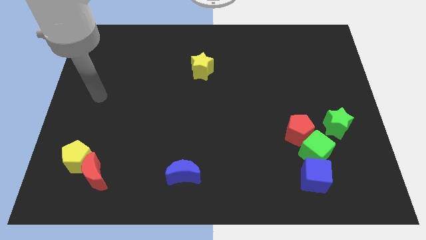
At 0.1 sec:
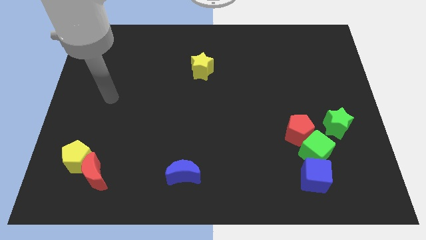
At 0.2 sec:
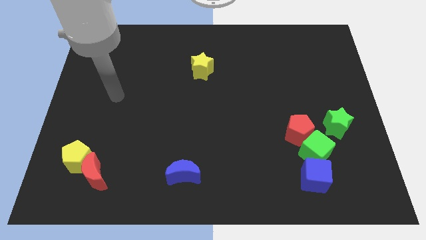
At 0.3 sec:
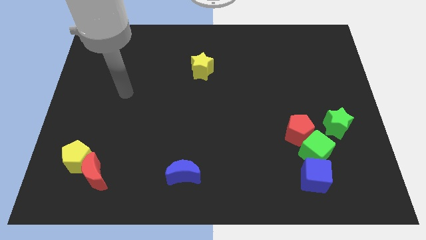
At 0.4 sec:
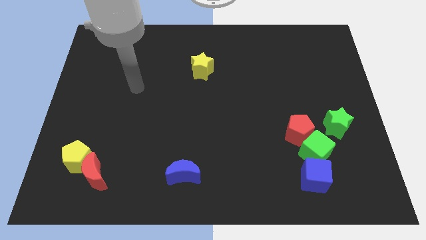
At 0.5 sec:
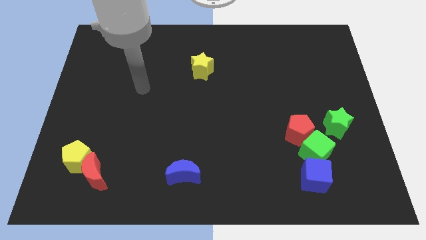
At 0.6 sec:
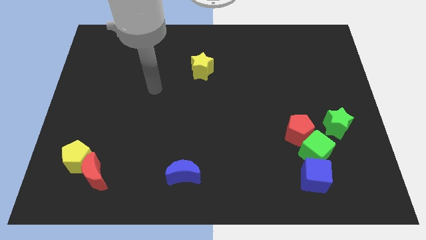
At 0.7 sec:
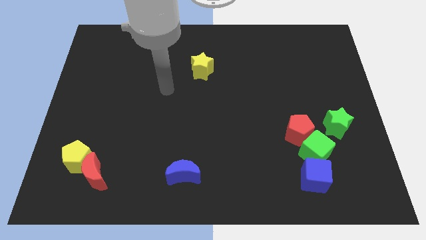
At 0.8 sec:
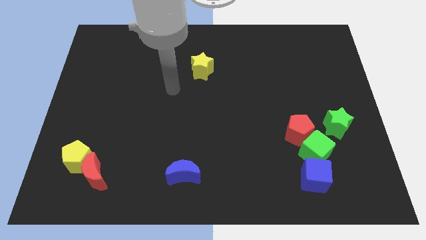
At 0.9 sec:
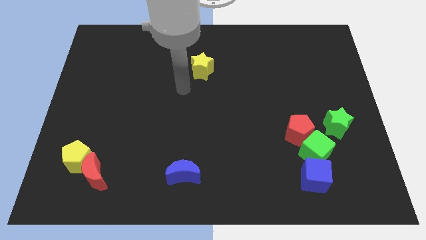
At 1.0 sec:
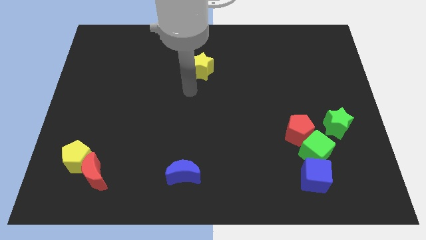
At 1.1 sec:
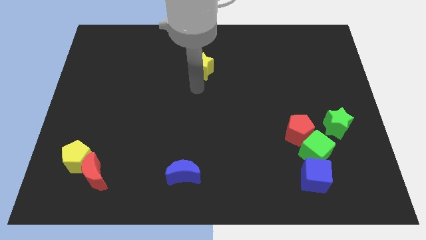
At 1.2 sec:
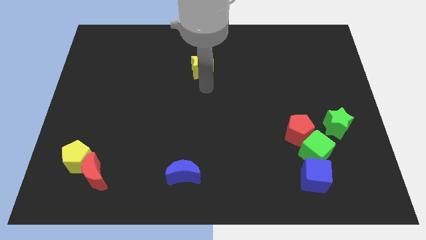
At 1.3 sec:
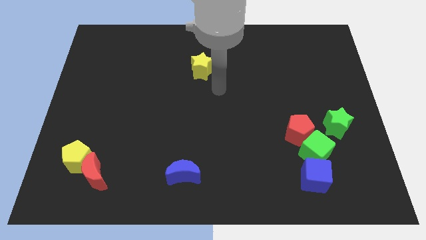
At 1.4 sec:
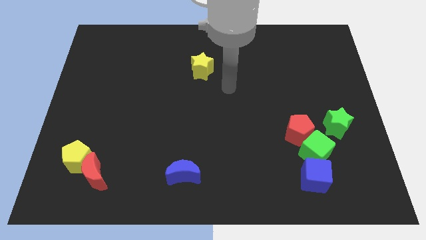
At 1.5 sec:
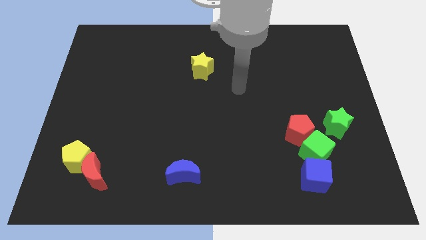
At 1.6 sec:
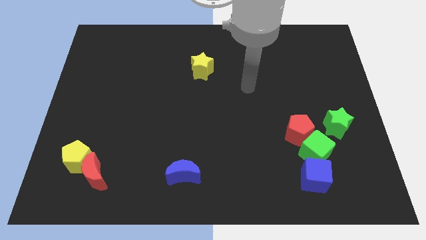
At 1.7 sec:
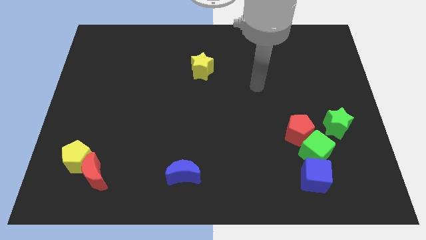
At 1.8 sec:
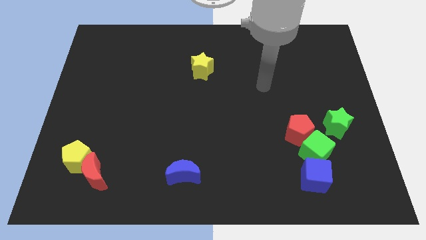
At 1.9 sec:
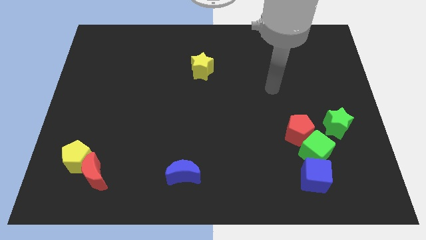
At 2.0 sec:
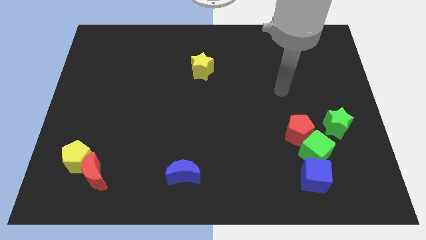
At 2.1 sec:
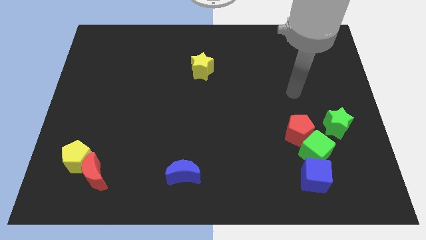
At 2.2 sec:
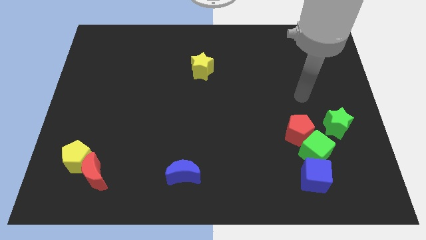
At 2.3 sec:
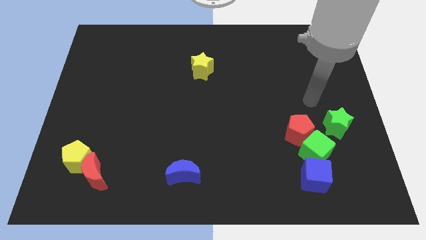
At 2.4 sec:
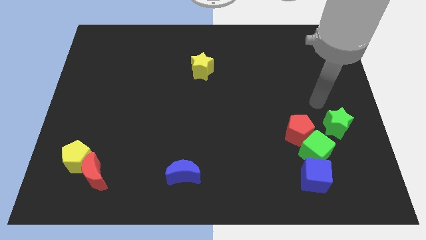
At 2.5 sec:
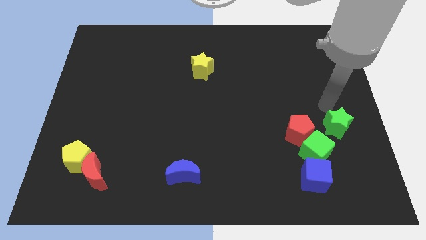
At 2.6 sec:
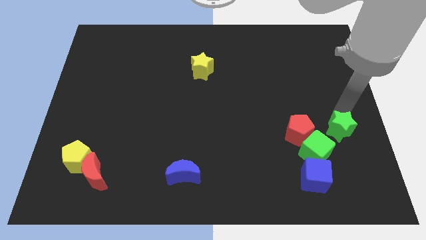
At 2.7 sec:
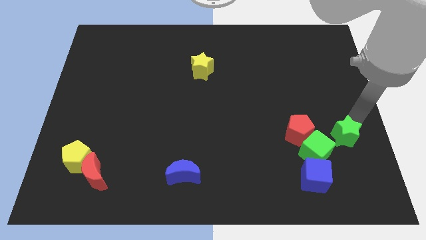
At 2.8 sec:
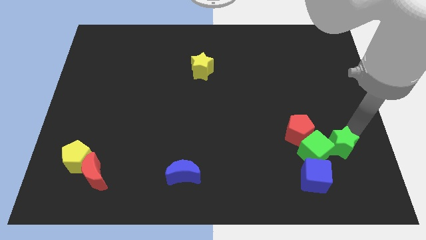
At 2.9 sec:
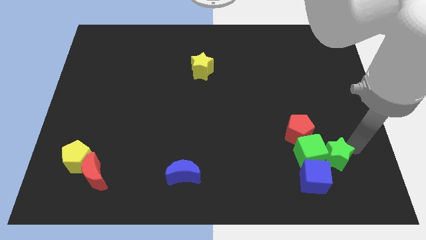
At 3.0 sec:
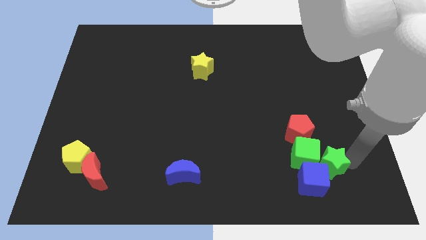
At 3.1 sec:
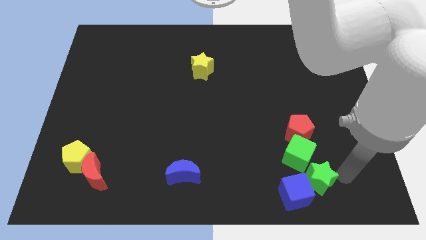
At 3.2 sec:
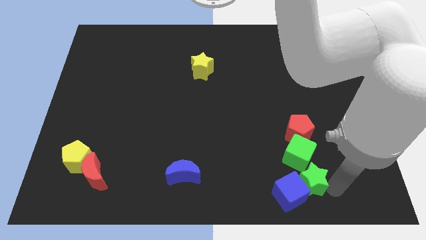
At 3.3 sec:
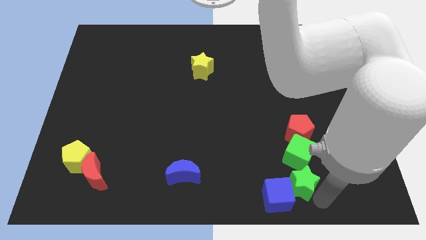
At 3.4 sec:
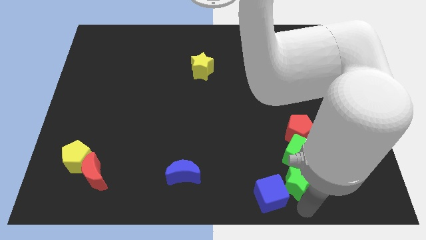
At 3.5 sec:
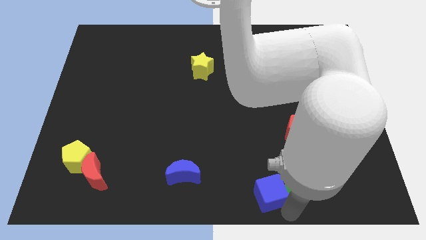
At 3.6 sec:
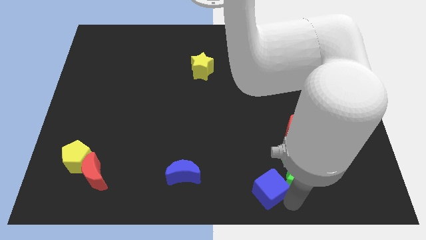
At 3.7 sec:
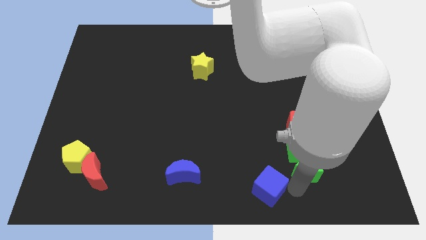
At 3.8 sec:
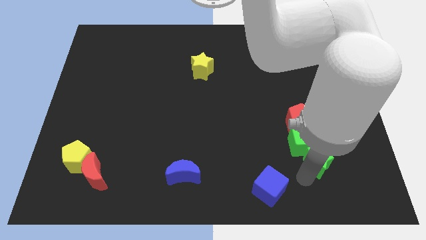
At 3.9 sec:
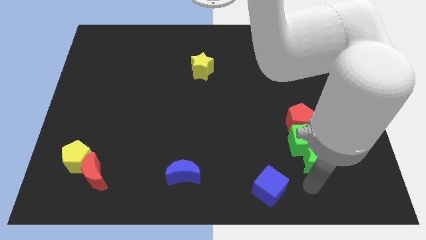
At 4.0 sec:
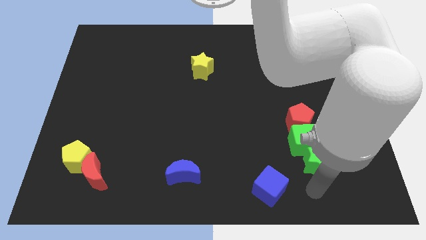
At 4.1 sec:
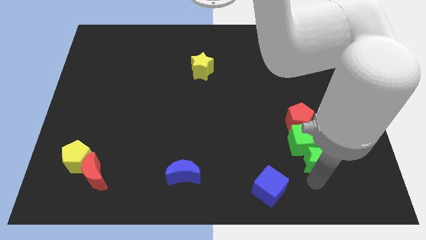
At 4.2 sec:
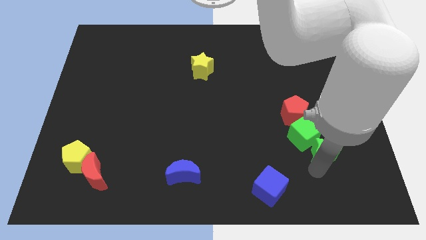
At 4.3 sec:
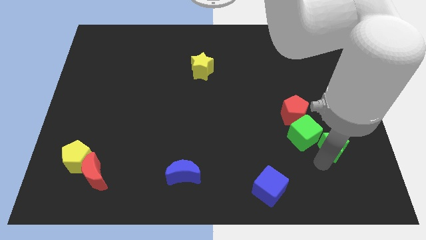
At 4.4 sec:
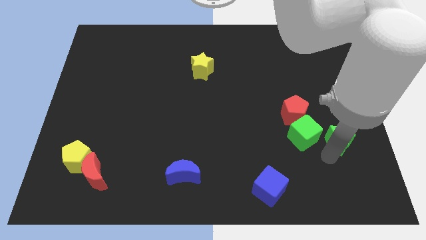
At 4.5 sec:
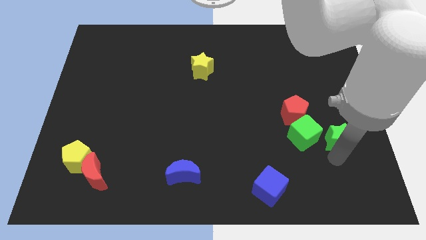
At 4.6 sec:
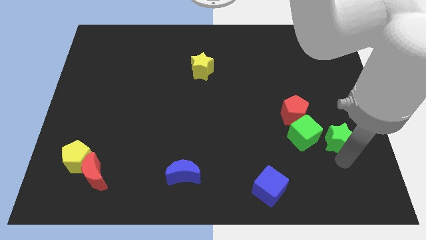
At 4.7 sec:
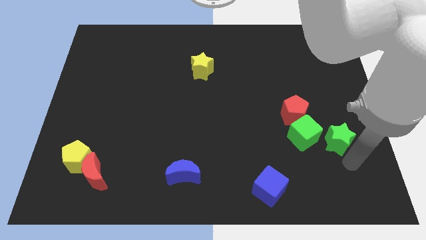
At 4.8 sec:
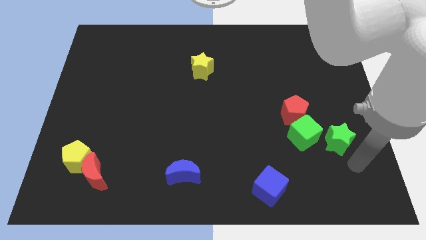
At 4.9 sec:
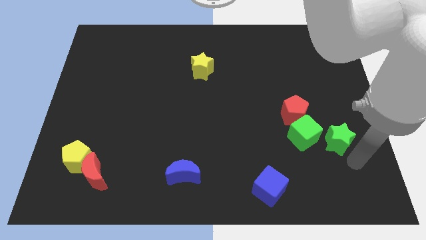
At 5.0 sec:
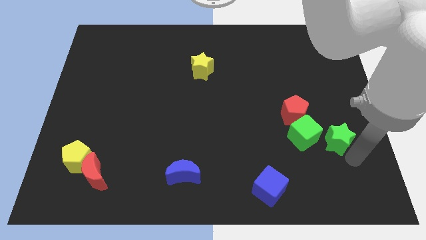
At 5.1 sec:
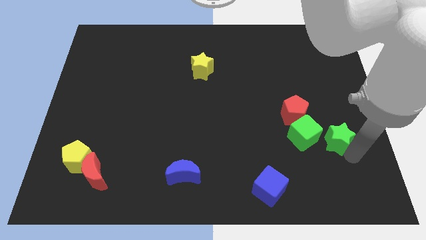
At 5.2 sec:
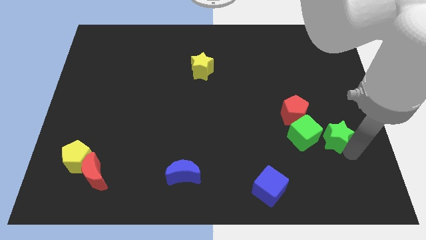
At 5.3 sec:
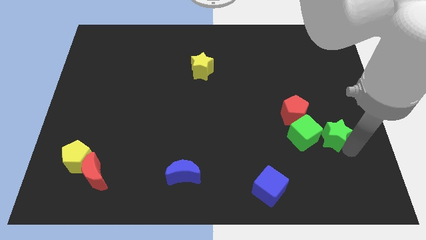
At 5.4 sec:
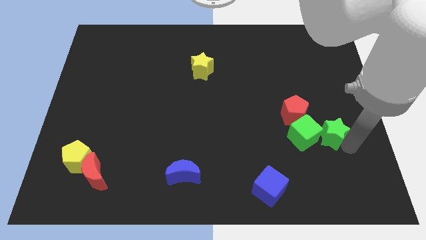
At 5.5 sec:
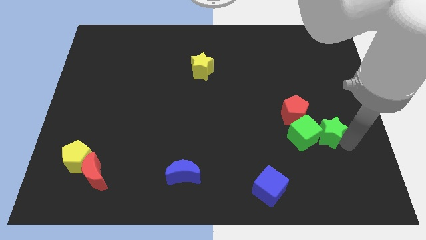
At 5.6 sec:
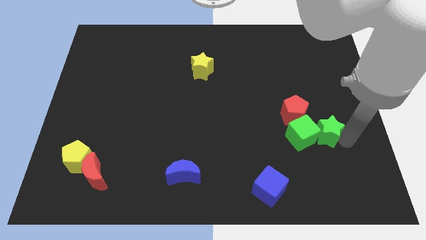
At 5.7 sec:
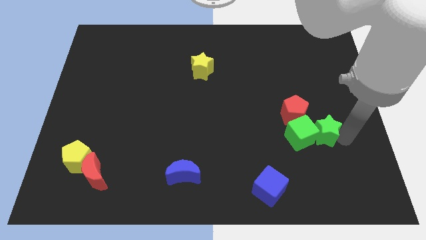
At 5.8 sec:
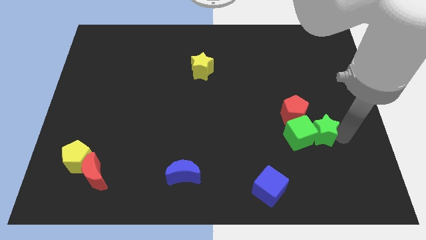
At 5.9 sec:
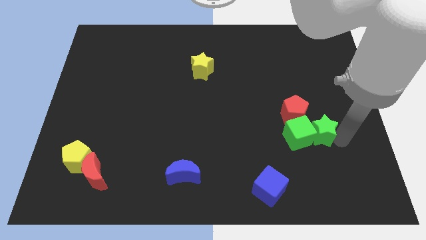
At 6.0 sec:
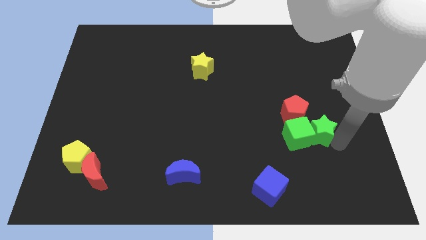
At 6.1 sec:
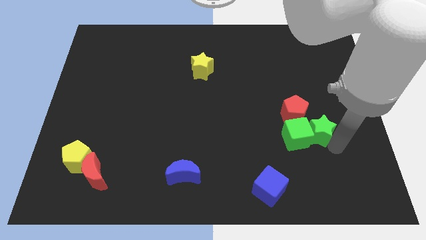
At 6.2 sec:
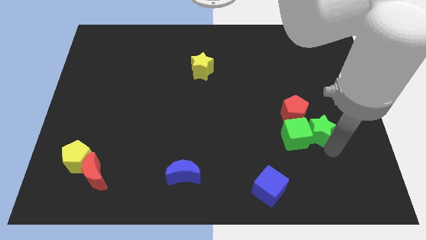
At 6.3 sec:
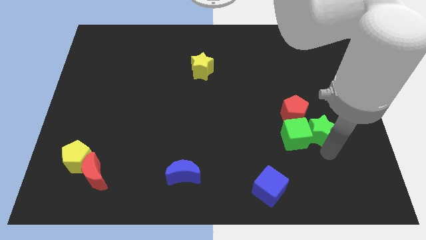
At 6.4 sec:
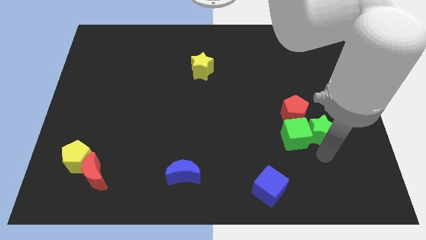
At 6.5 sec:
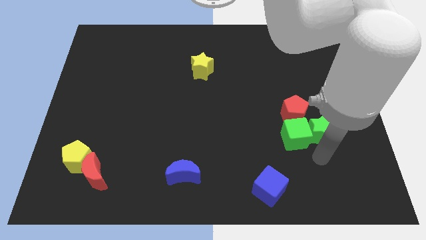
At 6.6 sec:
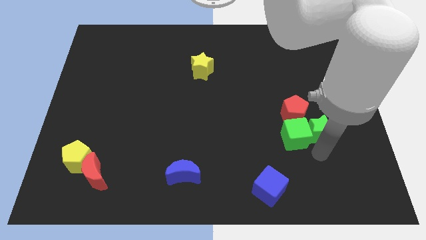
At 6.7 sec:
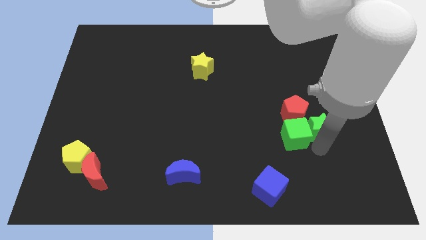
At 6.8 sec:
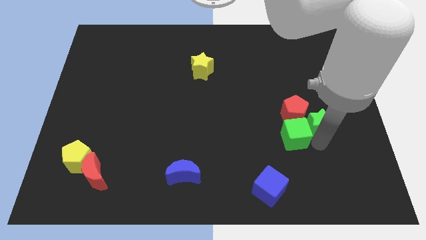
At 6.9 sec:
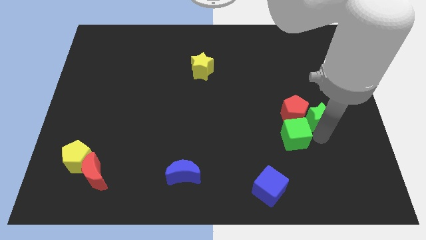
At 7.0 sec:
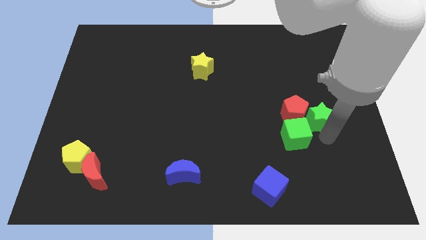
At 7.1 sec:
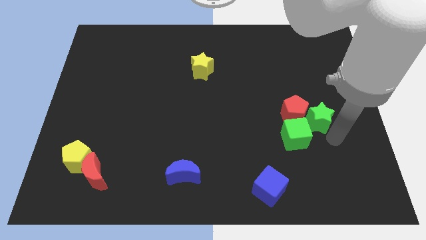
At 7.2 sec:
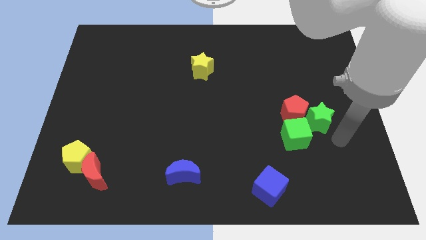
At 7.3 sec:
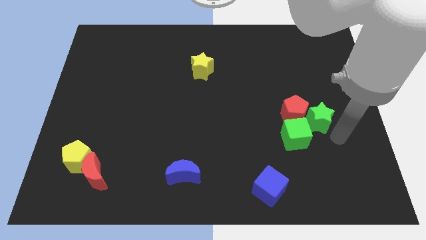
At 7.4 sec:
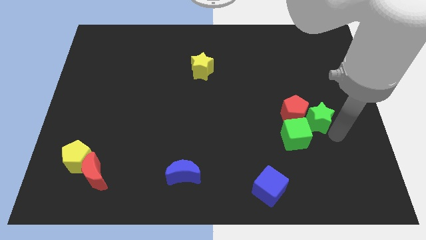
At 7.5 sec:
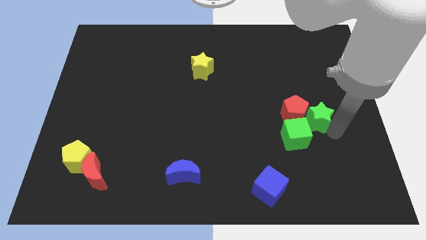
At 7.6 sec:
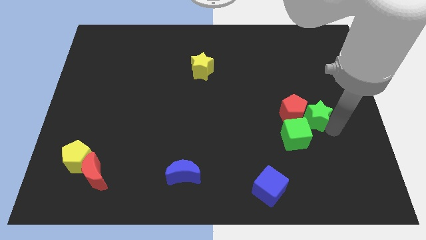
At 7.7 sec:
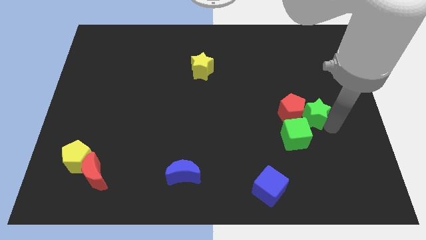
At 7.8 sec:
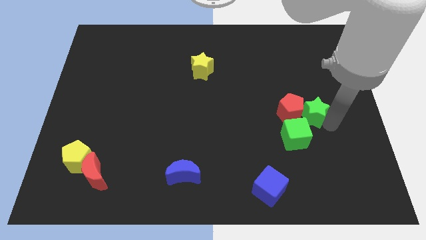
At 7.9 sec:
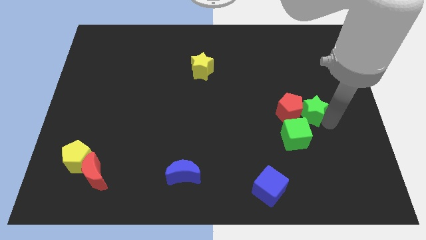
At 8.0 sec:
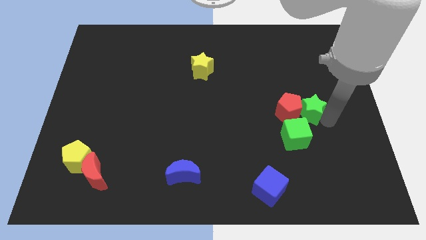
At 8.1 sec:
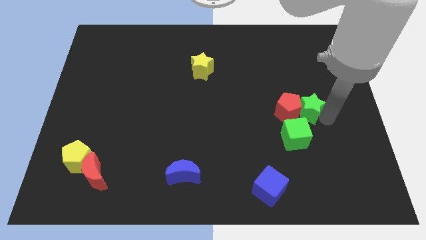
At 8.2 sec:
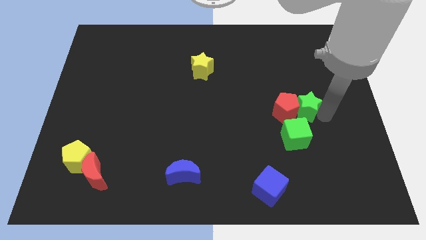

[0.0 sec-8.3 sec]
push the green star diagonally up and to the left a little

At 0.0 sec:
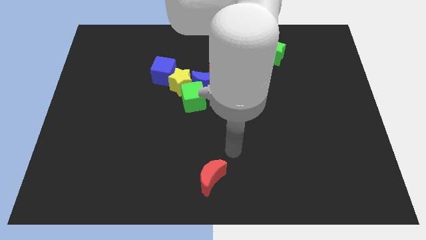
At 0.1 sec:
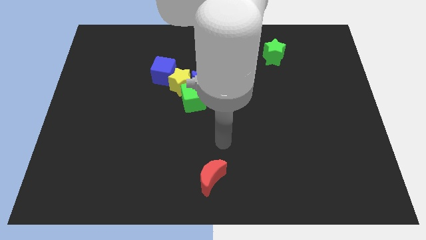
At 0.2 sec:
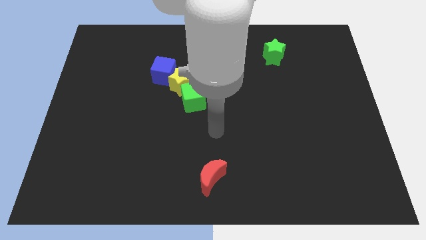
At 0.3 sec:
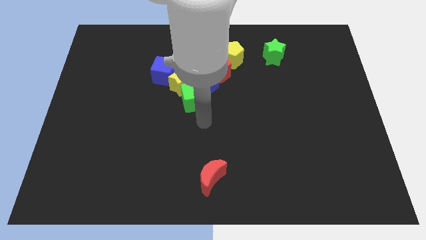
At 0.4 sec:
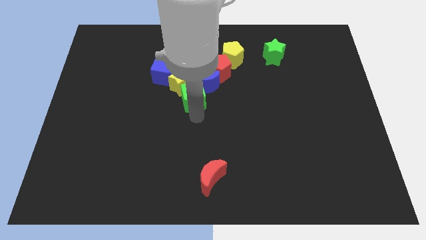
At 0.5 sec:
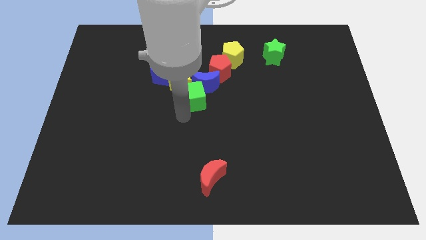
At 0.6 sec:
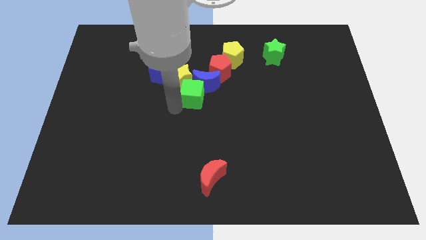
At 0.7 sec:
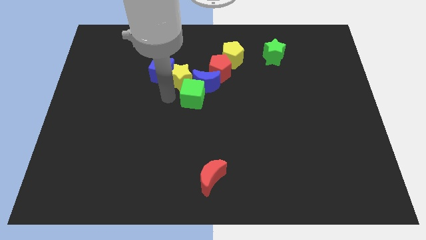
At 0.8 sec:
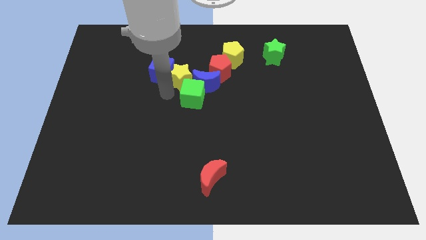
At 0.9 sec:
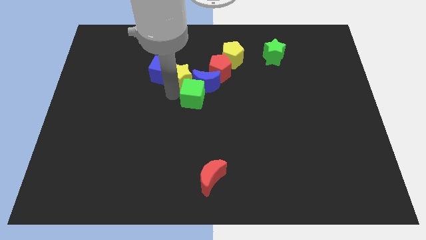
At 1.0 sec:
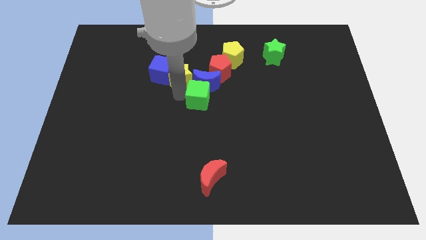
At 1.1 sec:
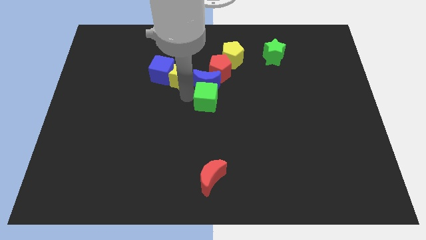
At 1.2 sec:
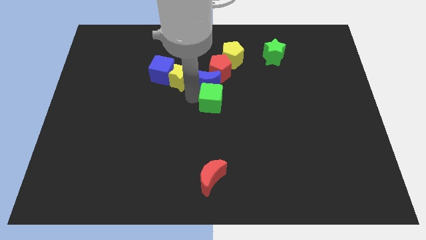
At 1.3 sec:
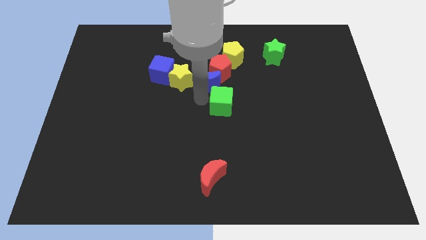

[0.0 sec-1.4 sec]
push the green cube a bit to the right
